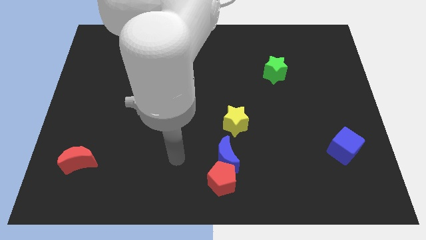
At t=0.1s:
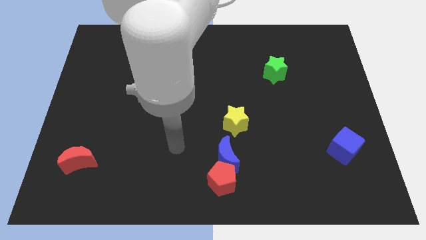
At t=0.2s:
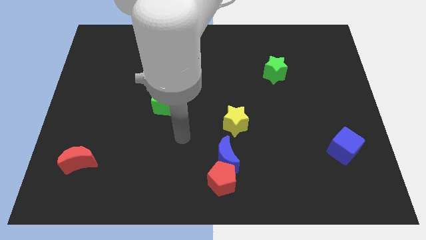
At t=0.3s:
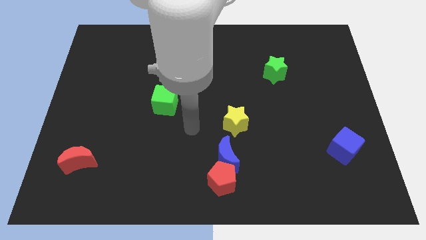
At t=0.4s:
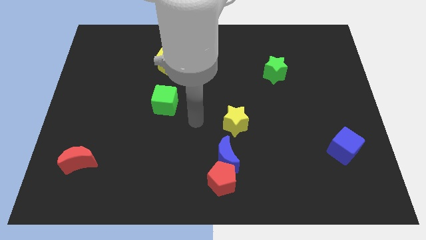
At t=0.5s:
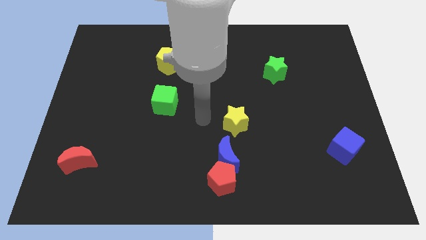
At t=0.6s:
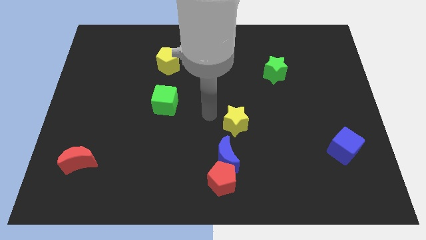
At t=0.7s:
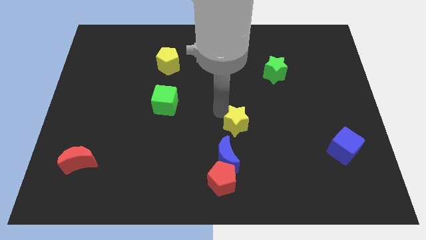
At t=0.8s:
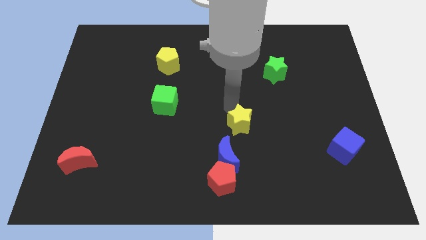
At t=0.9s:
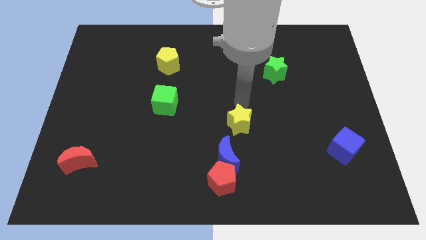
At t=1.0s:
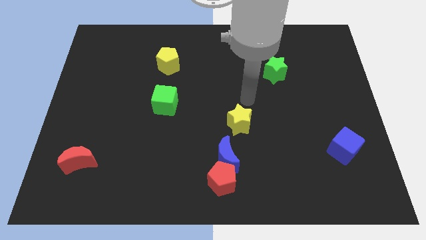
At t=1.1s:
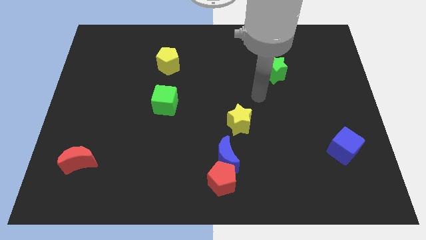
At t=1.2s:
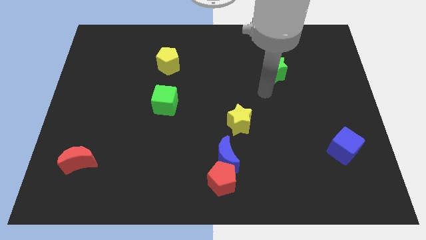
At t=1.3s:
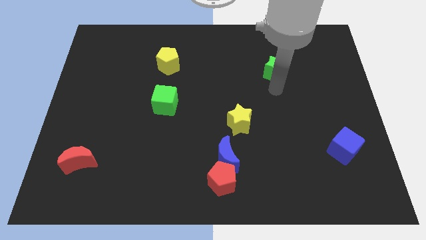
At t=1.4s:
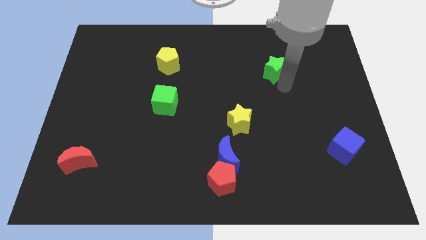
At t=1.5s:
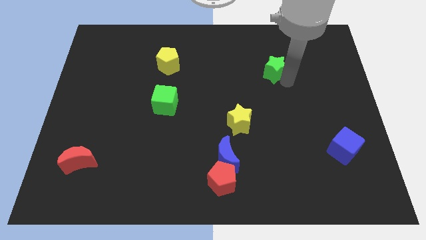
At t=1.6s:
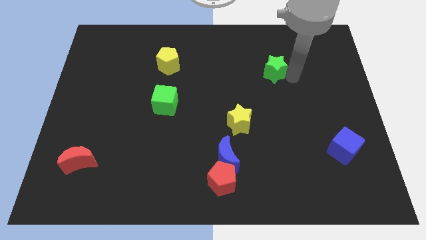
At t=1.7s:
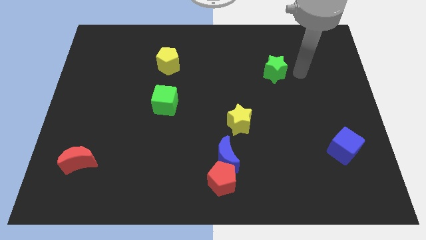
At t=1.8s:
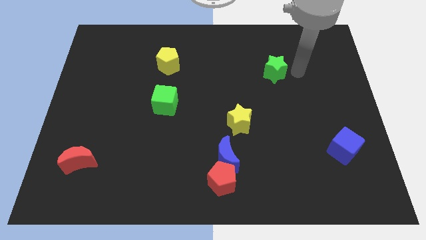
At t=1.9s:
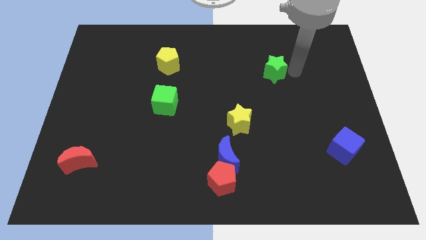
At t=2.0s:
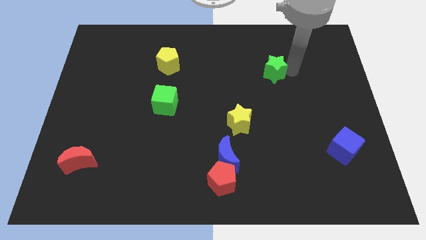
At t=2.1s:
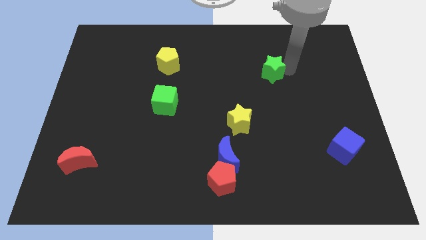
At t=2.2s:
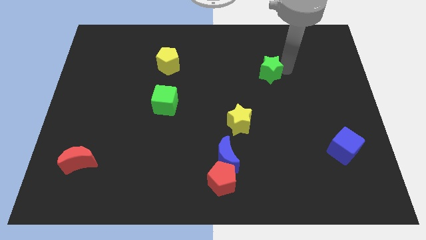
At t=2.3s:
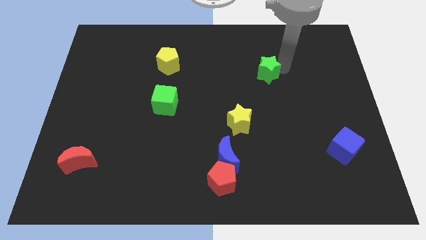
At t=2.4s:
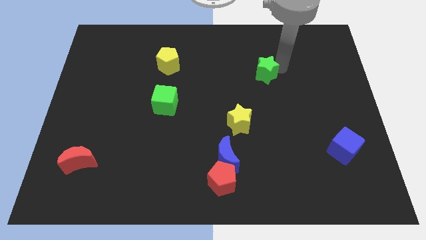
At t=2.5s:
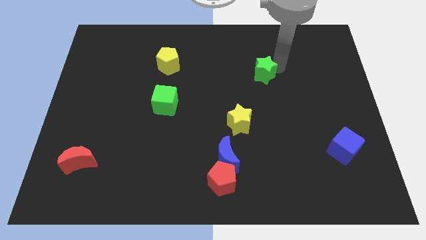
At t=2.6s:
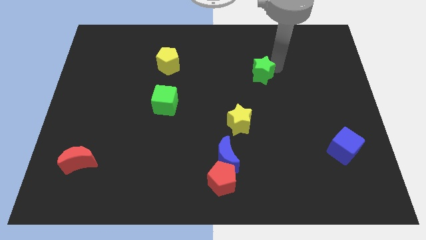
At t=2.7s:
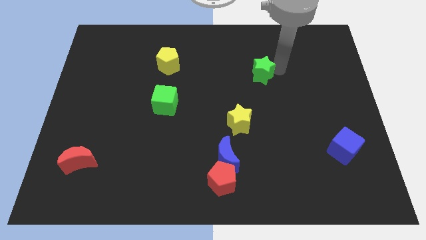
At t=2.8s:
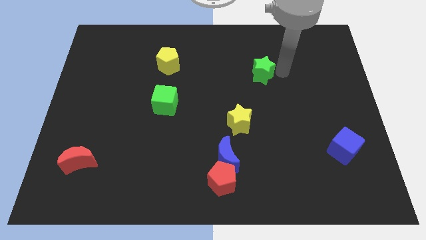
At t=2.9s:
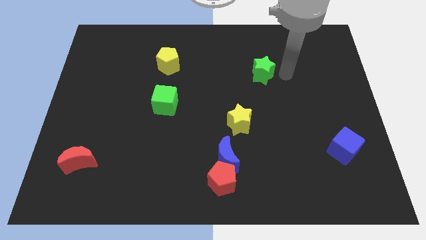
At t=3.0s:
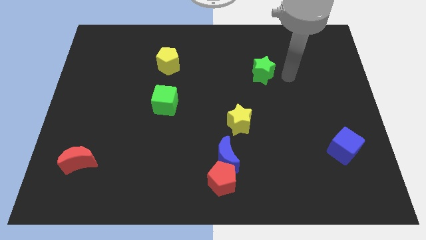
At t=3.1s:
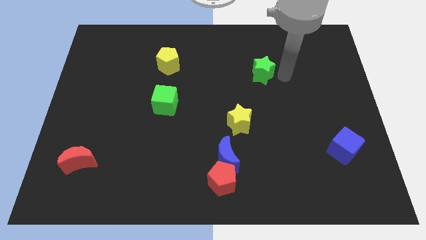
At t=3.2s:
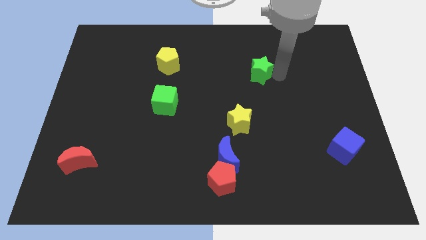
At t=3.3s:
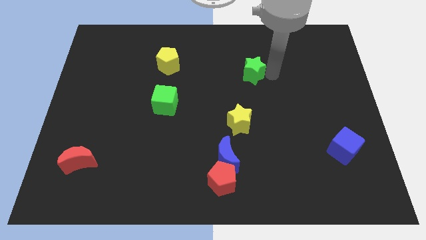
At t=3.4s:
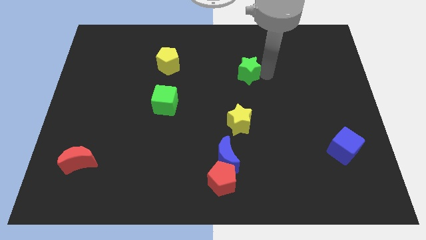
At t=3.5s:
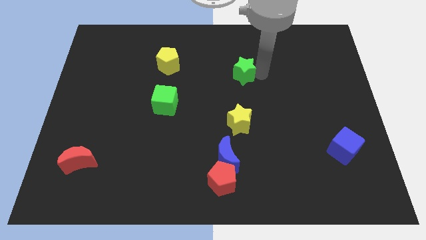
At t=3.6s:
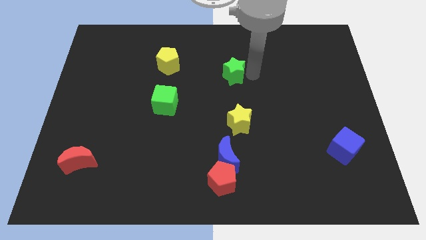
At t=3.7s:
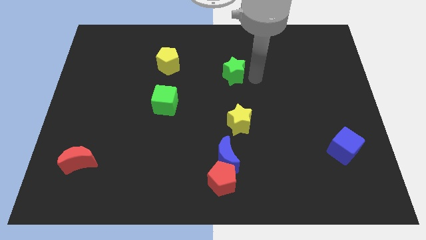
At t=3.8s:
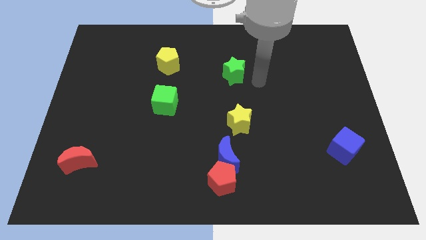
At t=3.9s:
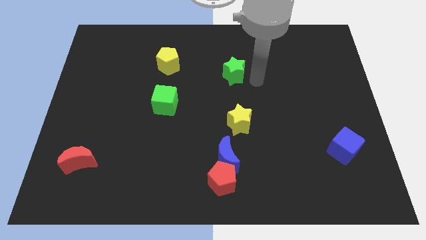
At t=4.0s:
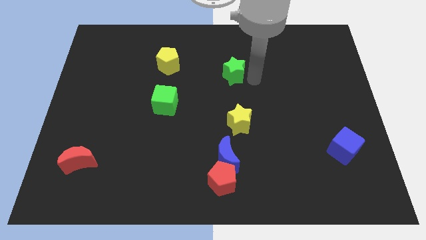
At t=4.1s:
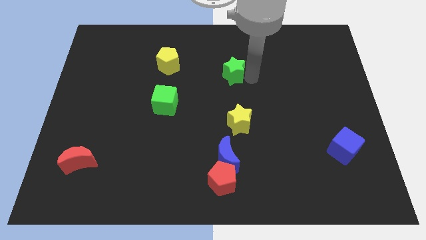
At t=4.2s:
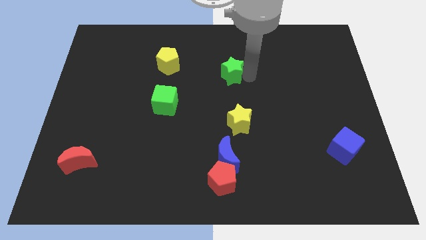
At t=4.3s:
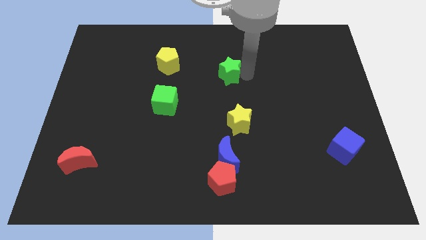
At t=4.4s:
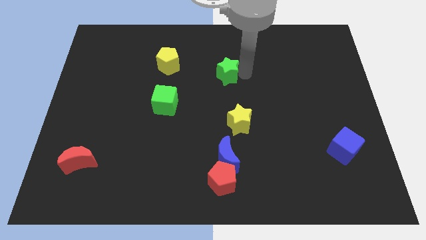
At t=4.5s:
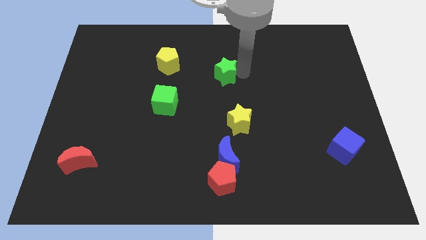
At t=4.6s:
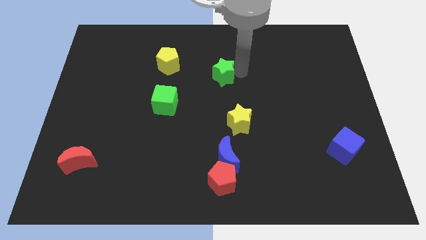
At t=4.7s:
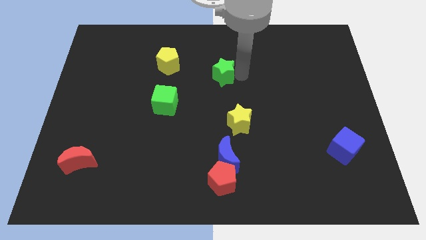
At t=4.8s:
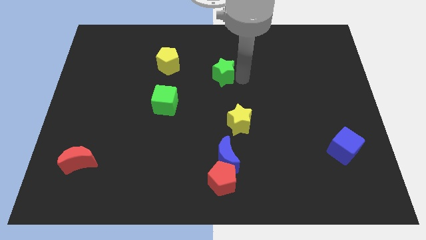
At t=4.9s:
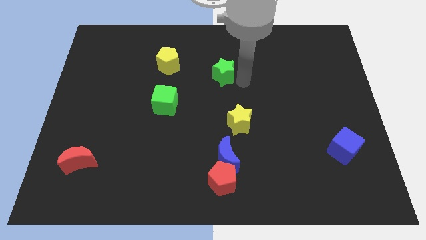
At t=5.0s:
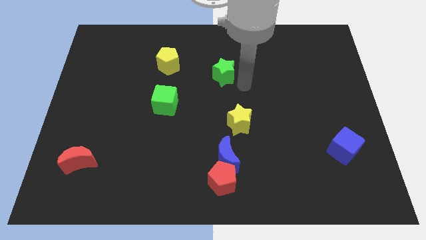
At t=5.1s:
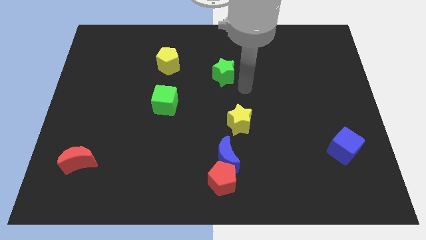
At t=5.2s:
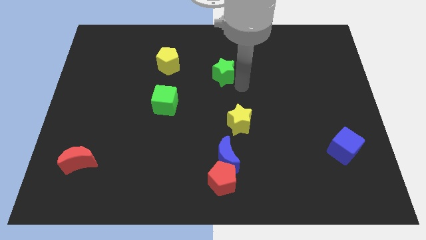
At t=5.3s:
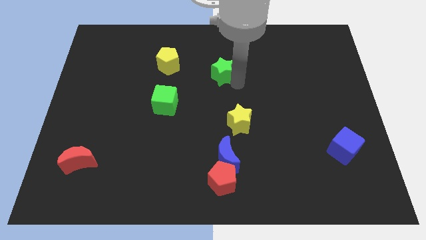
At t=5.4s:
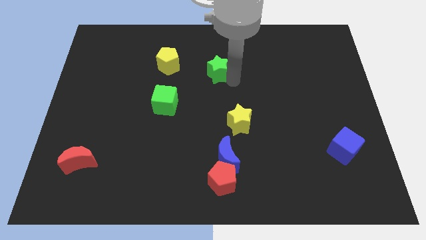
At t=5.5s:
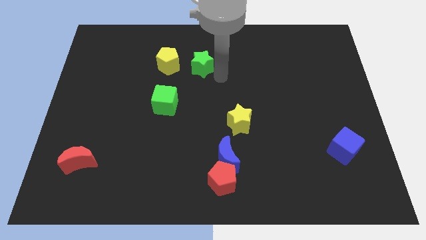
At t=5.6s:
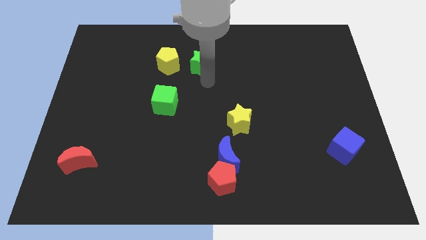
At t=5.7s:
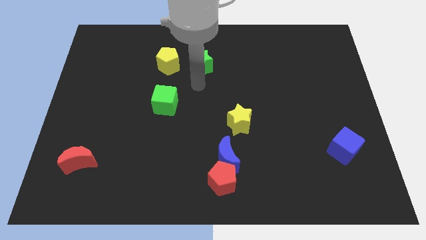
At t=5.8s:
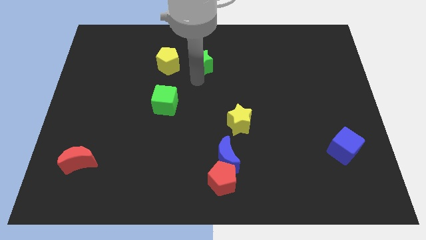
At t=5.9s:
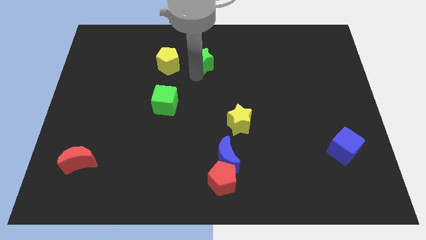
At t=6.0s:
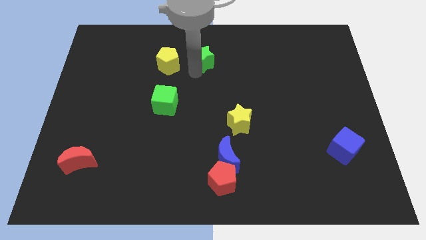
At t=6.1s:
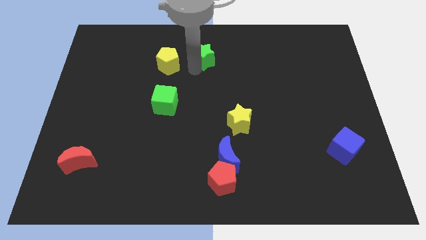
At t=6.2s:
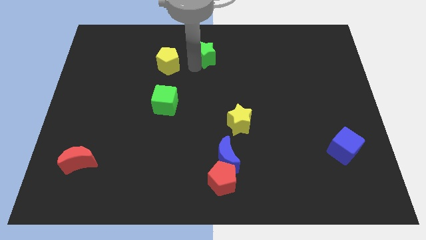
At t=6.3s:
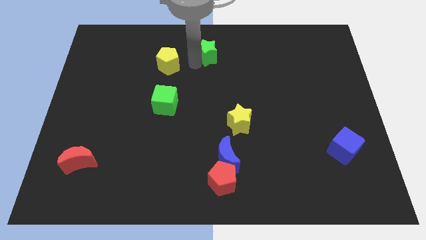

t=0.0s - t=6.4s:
move the green star to the top side

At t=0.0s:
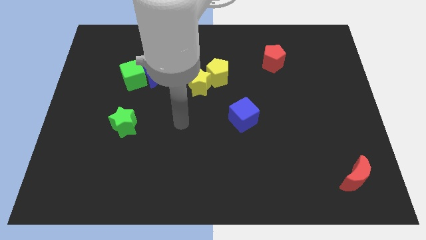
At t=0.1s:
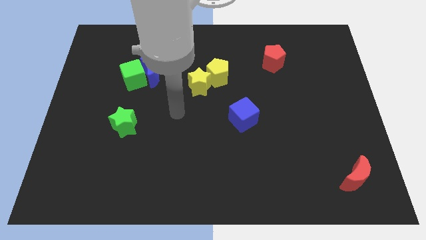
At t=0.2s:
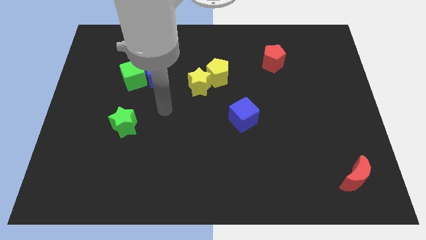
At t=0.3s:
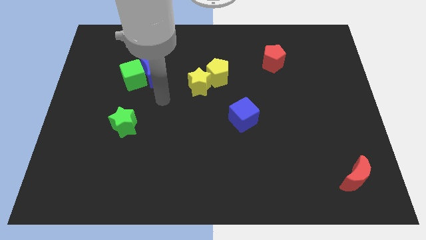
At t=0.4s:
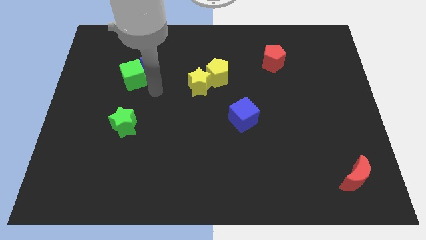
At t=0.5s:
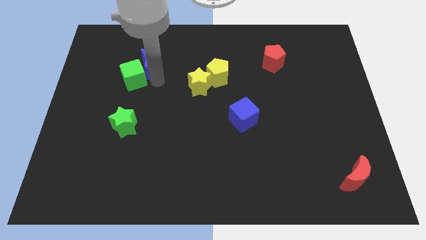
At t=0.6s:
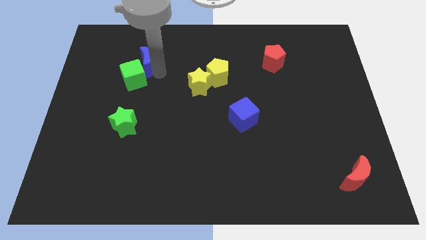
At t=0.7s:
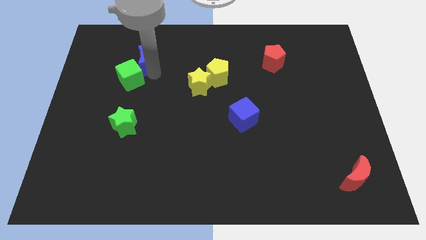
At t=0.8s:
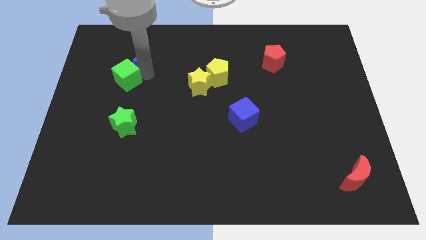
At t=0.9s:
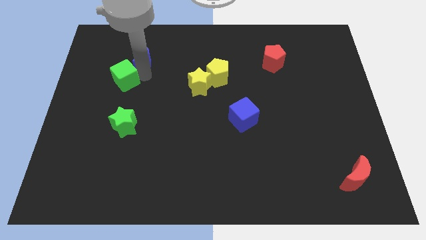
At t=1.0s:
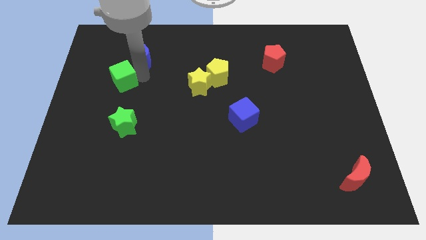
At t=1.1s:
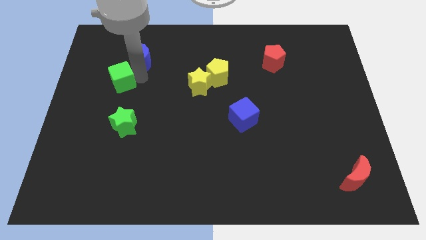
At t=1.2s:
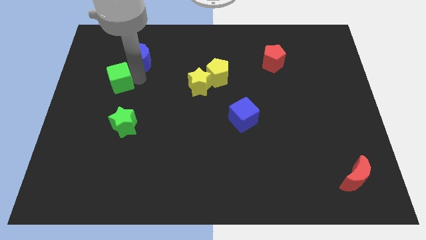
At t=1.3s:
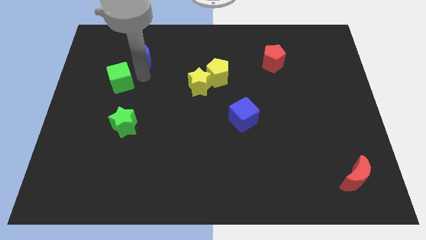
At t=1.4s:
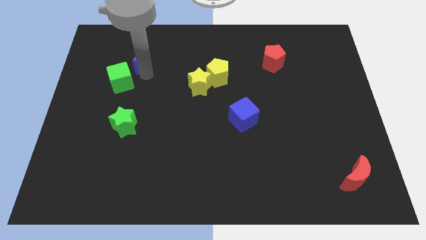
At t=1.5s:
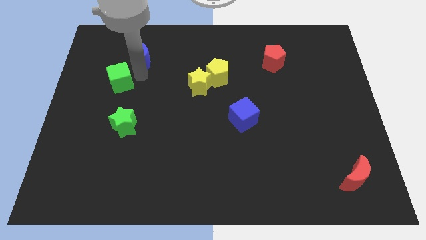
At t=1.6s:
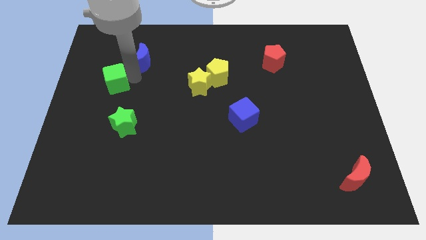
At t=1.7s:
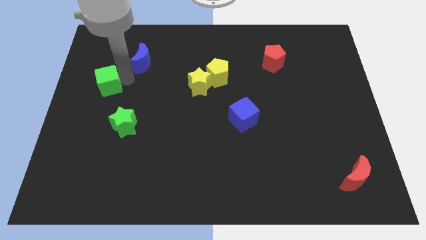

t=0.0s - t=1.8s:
put the green cube to the center left
